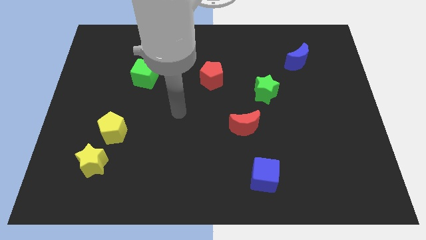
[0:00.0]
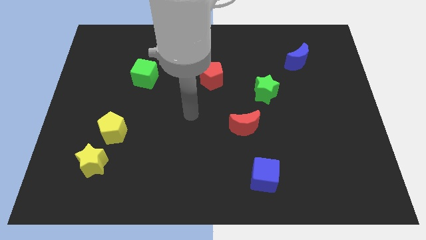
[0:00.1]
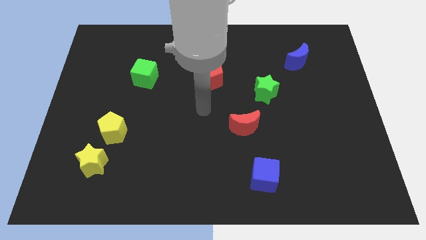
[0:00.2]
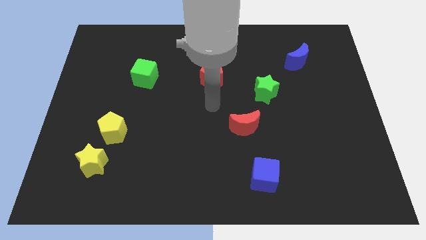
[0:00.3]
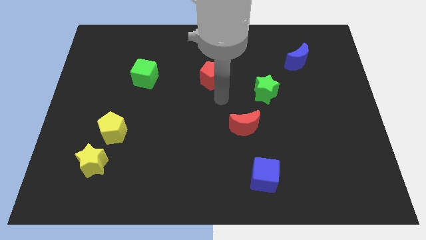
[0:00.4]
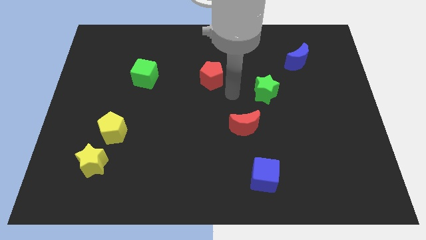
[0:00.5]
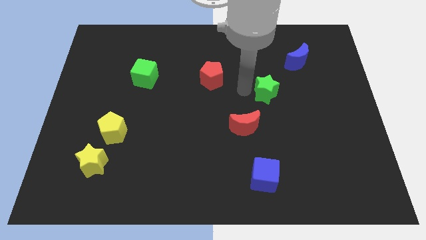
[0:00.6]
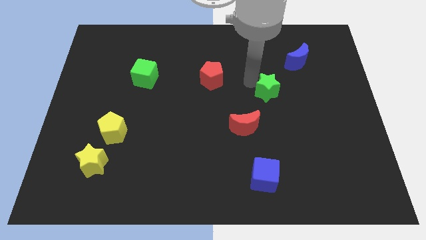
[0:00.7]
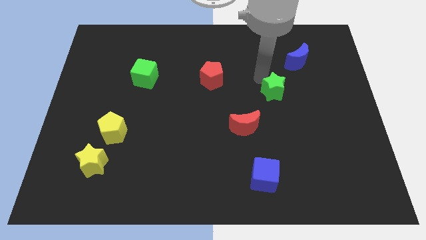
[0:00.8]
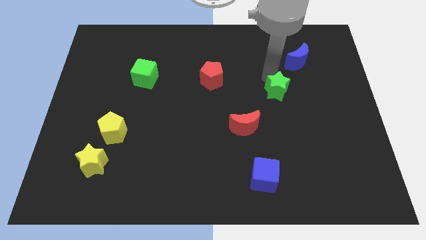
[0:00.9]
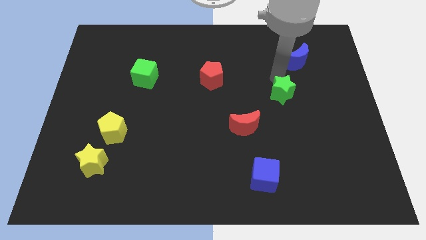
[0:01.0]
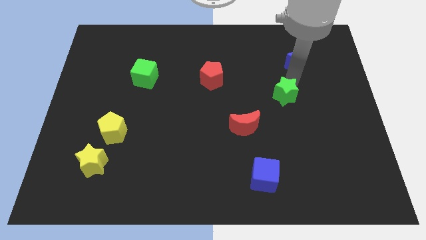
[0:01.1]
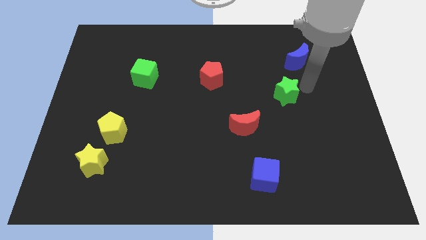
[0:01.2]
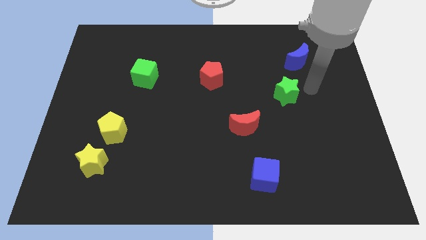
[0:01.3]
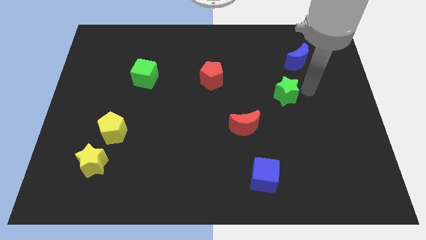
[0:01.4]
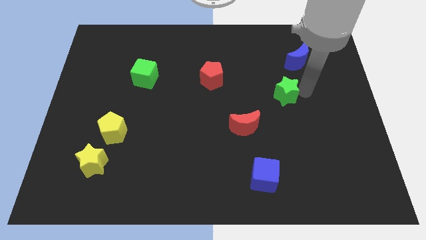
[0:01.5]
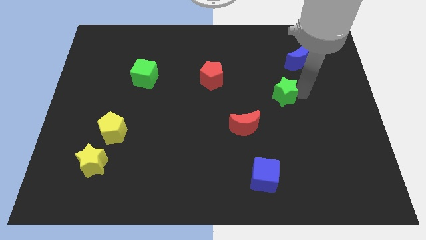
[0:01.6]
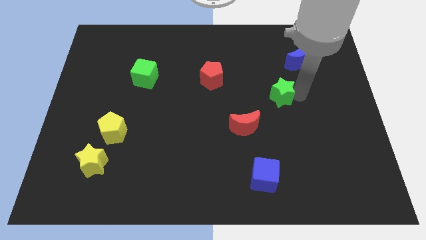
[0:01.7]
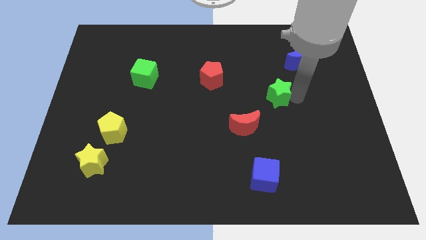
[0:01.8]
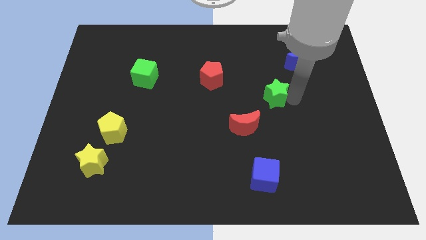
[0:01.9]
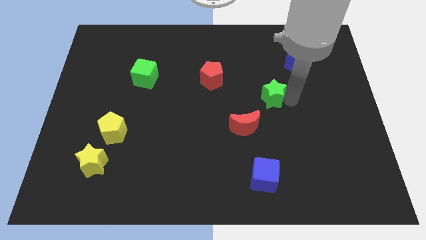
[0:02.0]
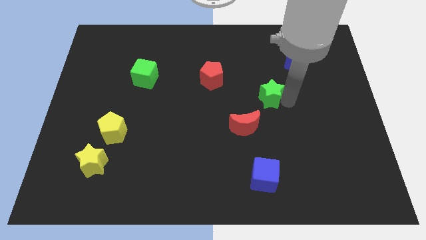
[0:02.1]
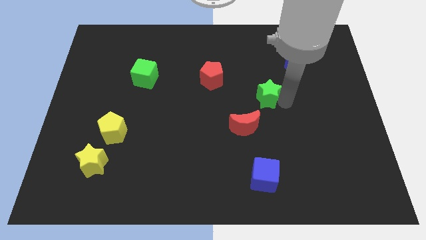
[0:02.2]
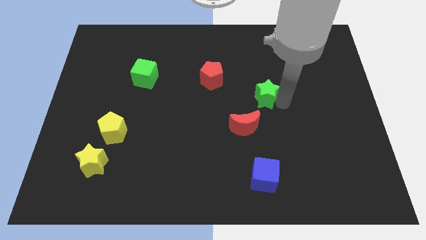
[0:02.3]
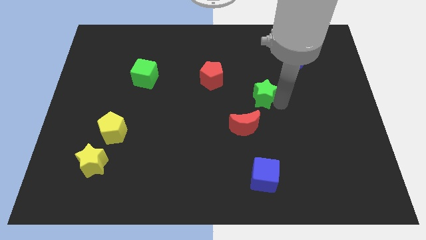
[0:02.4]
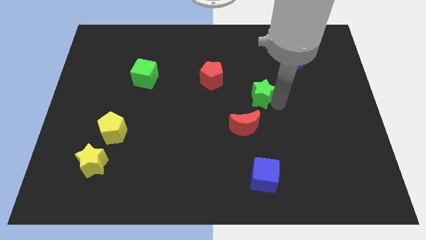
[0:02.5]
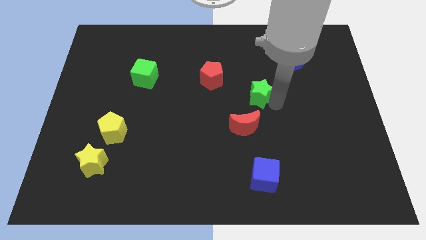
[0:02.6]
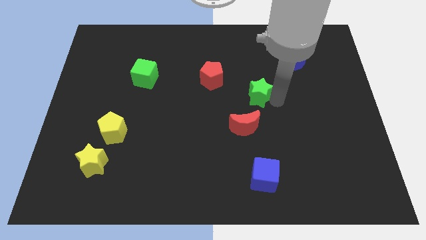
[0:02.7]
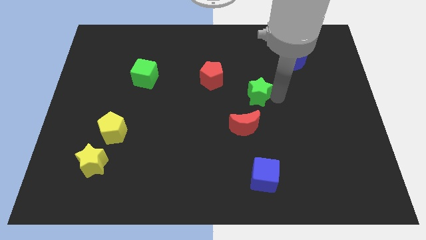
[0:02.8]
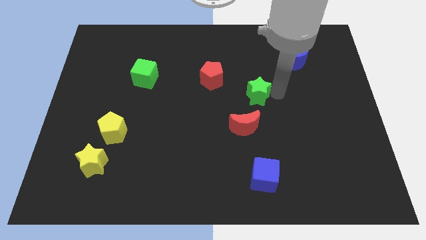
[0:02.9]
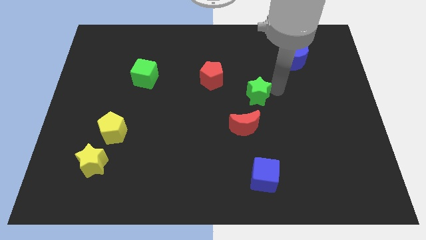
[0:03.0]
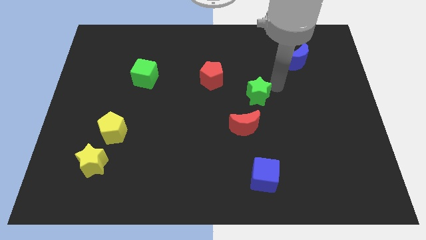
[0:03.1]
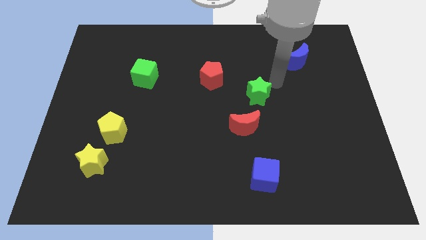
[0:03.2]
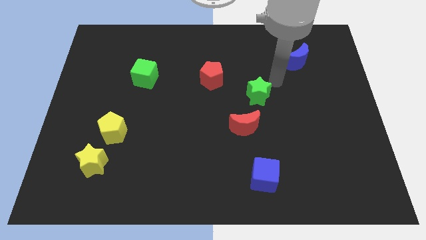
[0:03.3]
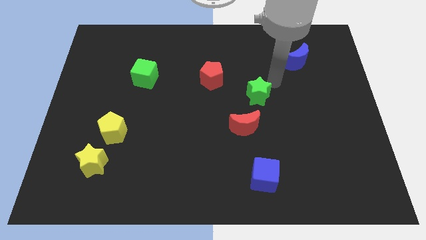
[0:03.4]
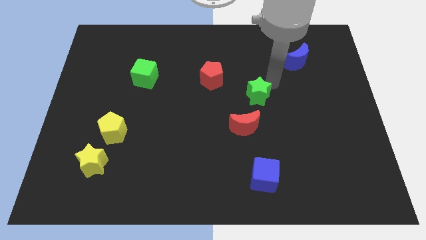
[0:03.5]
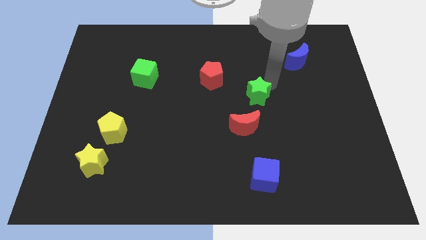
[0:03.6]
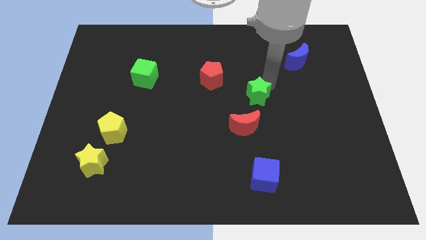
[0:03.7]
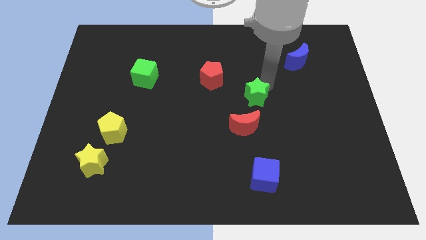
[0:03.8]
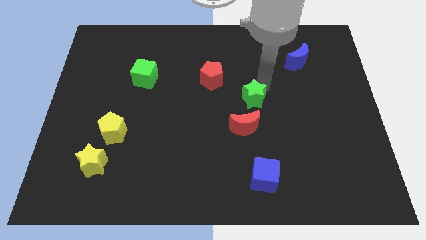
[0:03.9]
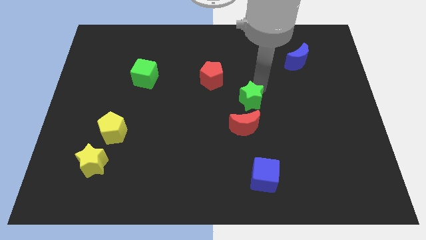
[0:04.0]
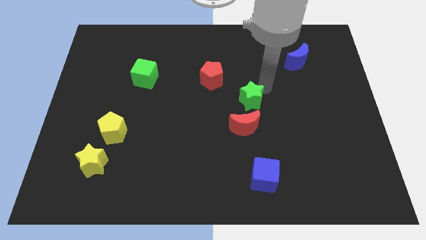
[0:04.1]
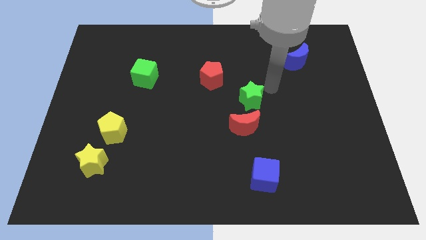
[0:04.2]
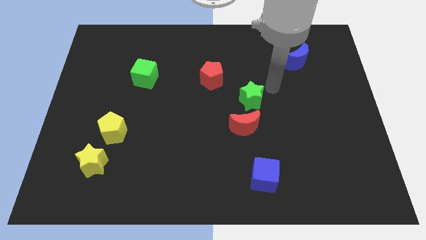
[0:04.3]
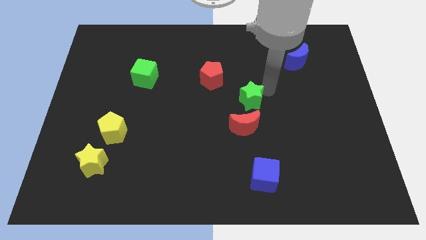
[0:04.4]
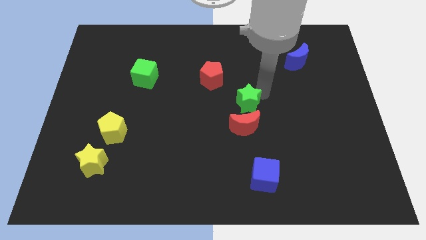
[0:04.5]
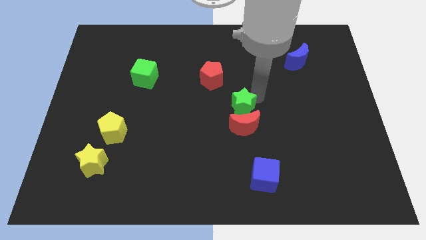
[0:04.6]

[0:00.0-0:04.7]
slide the green star downwards and left a little

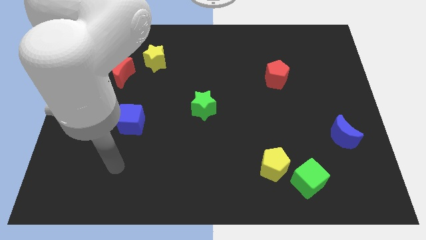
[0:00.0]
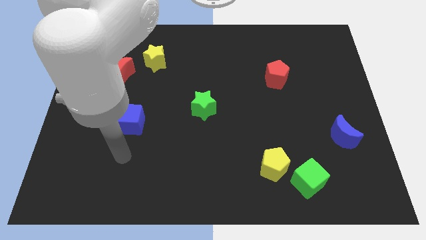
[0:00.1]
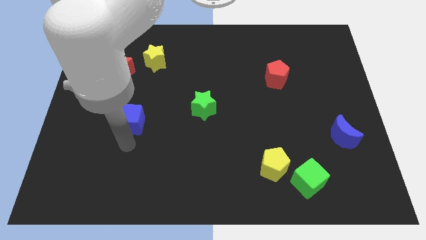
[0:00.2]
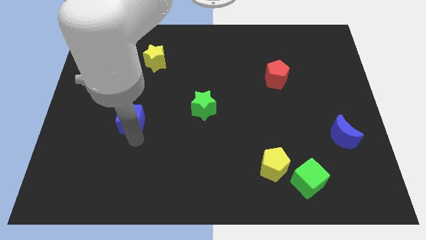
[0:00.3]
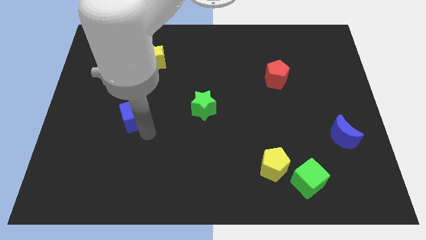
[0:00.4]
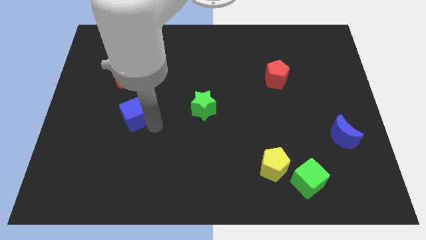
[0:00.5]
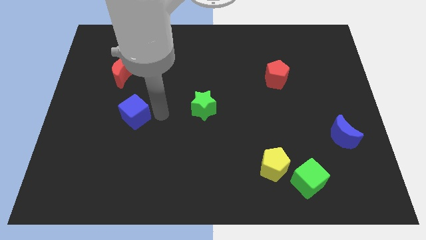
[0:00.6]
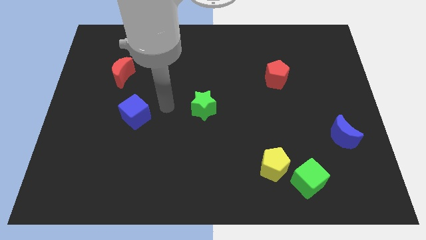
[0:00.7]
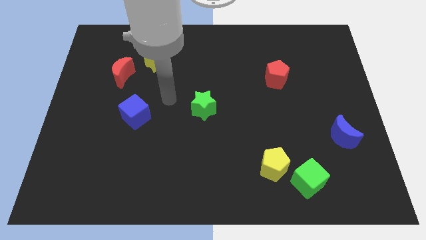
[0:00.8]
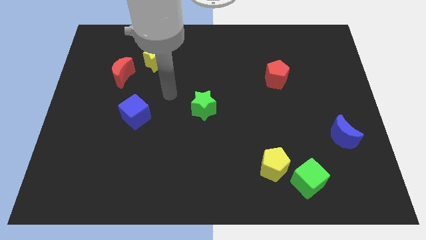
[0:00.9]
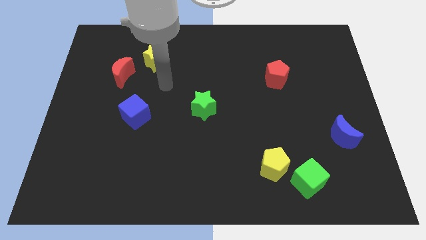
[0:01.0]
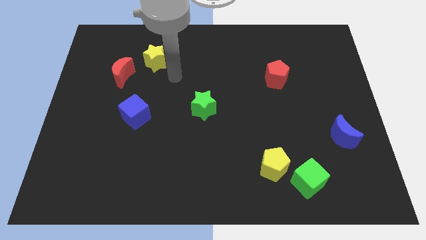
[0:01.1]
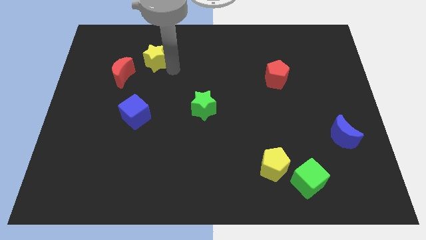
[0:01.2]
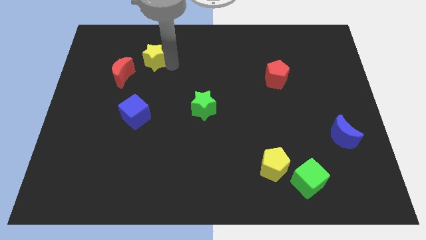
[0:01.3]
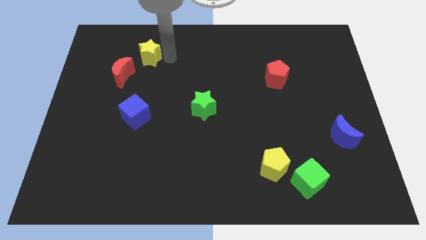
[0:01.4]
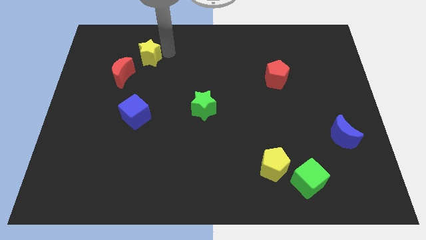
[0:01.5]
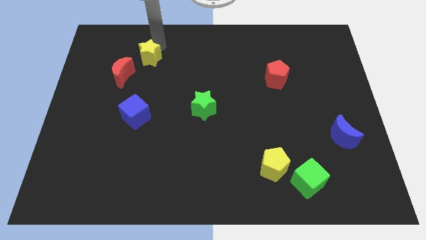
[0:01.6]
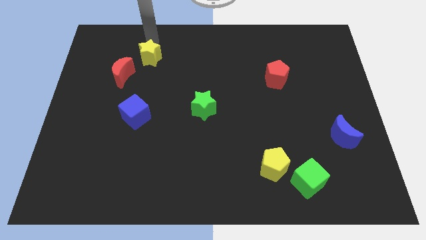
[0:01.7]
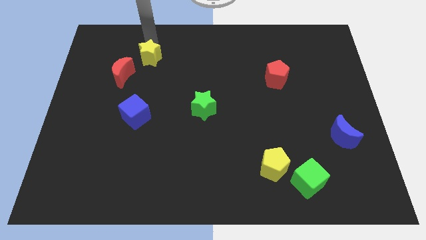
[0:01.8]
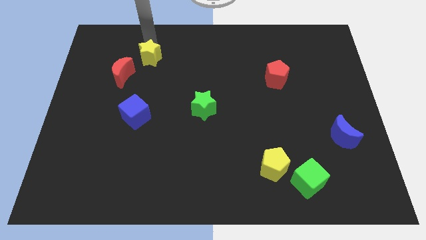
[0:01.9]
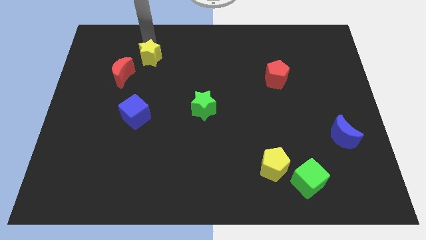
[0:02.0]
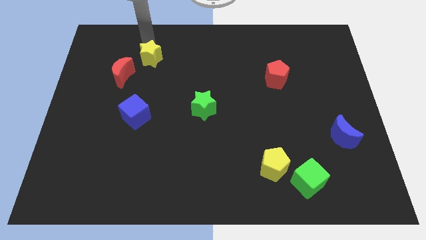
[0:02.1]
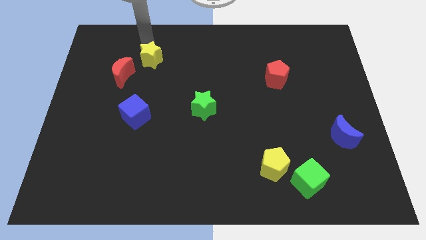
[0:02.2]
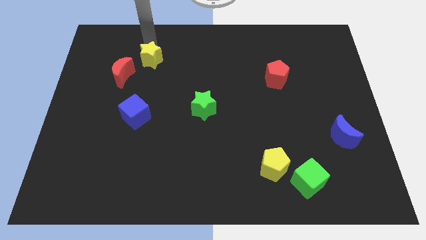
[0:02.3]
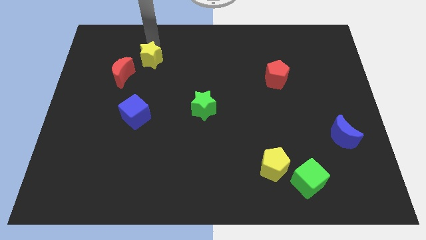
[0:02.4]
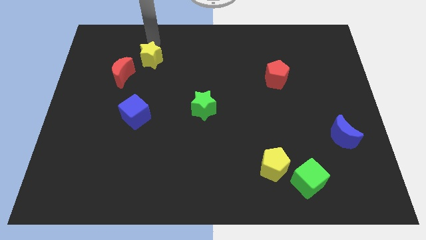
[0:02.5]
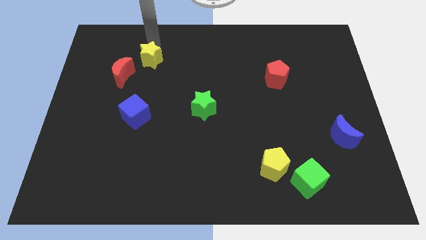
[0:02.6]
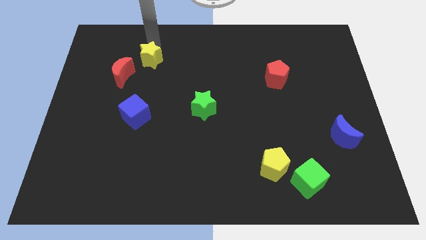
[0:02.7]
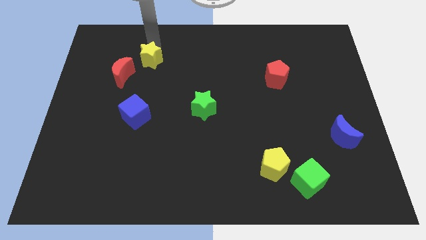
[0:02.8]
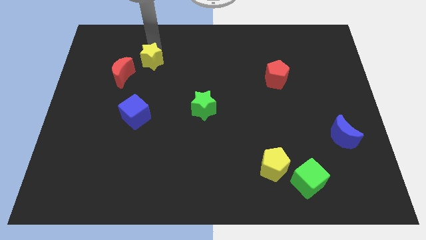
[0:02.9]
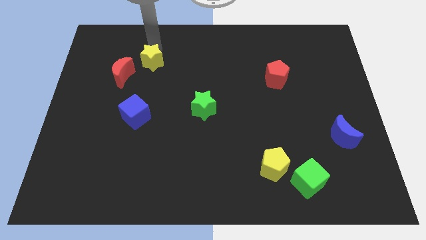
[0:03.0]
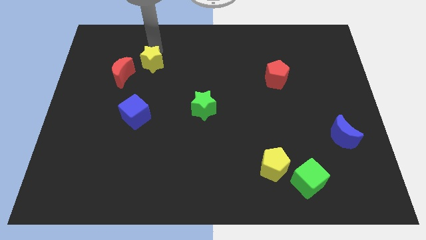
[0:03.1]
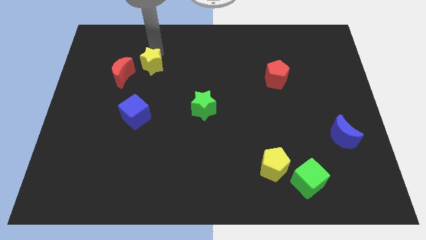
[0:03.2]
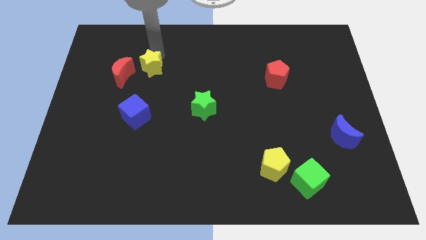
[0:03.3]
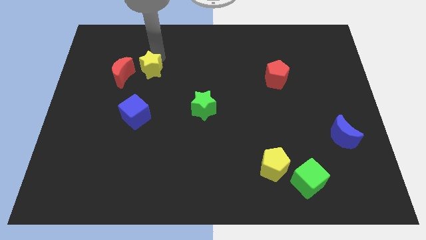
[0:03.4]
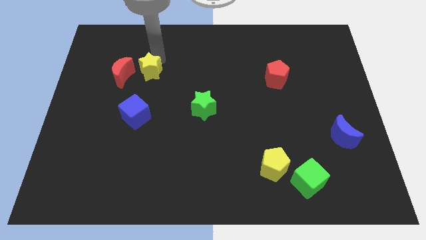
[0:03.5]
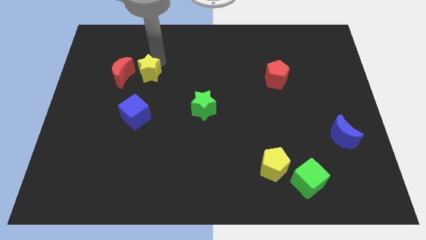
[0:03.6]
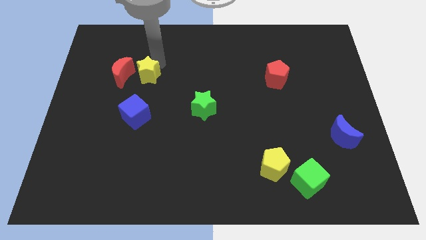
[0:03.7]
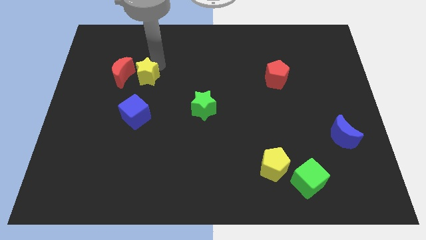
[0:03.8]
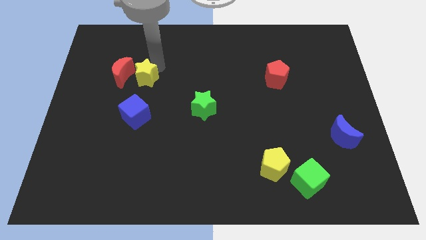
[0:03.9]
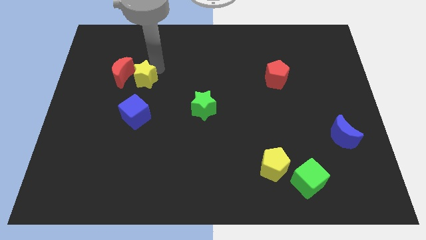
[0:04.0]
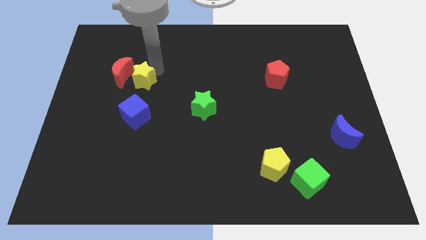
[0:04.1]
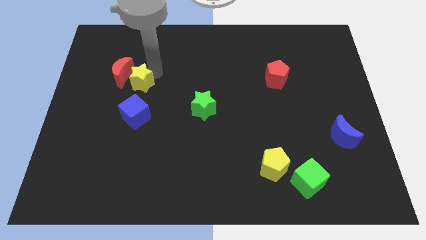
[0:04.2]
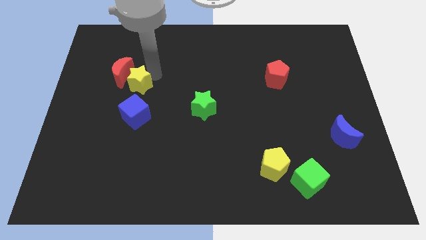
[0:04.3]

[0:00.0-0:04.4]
slightly push the yellow star downwards and then left
